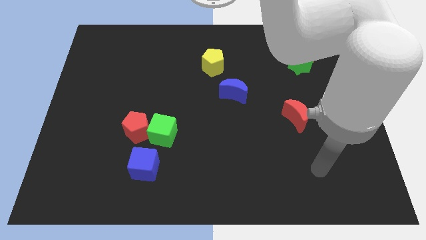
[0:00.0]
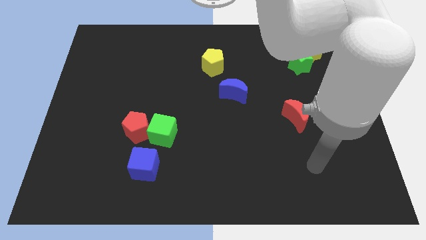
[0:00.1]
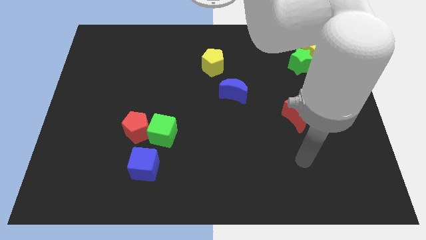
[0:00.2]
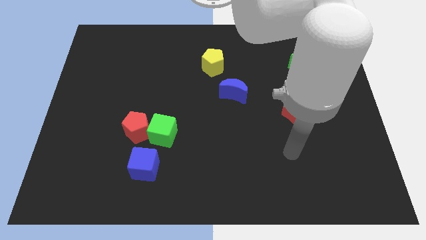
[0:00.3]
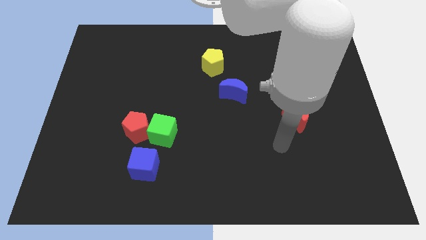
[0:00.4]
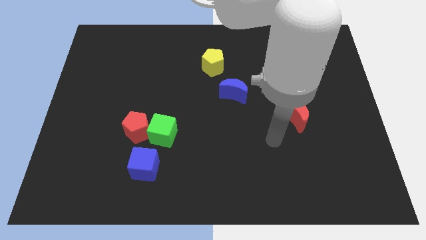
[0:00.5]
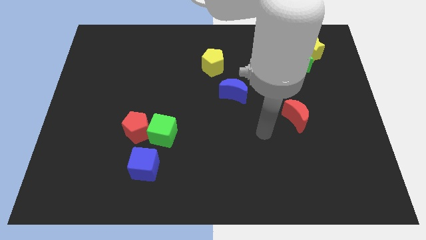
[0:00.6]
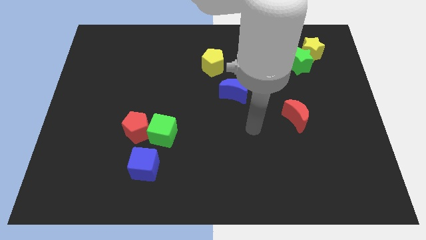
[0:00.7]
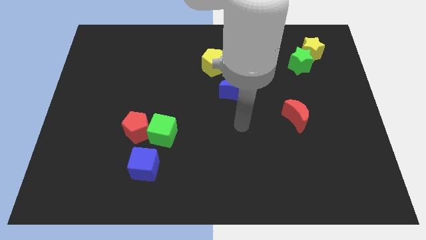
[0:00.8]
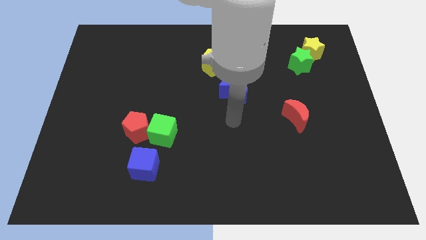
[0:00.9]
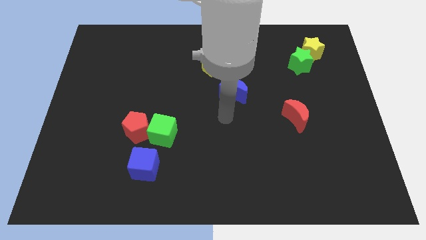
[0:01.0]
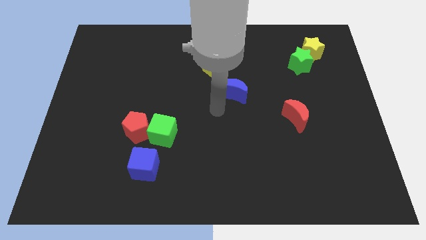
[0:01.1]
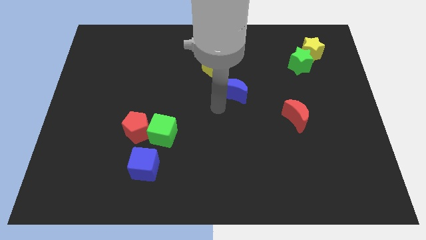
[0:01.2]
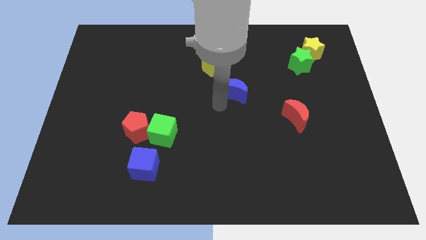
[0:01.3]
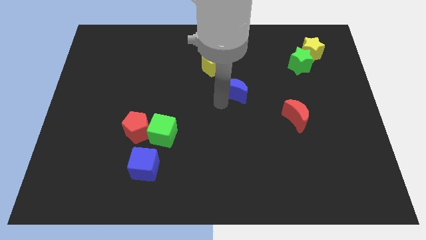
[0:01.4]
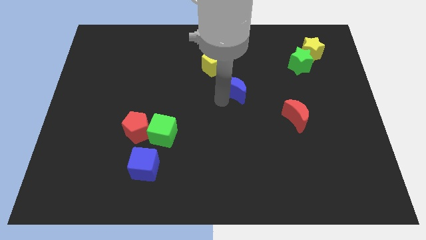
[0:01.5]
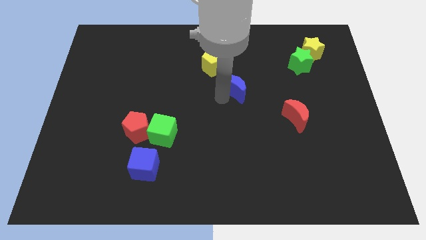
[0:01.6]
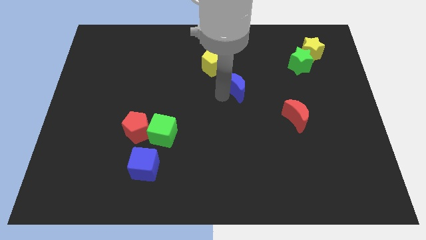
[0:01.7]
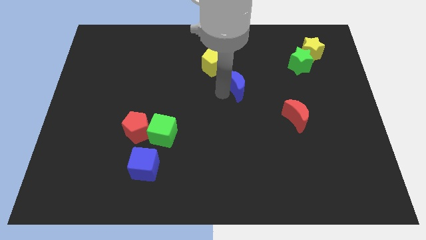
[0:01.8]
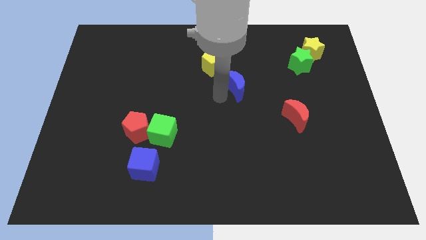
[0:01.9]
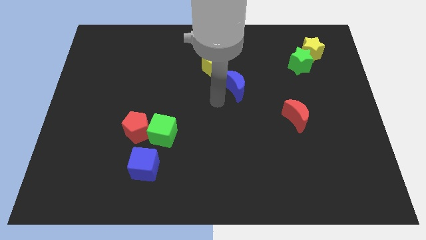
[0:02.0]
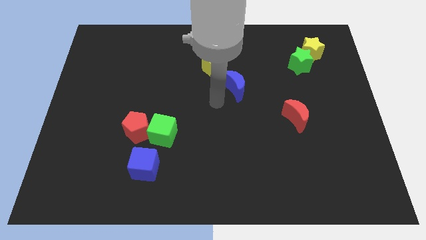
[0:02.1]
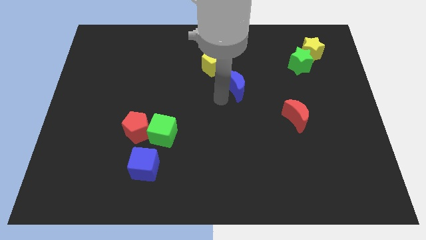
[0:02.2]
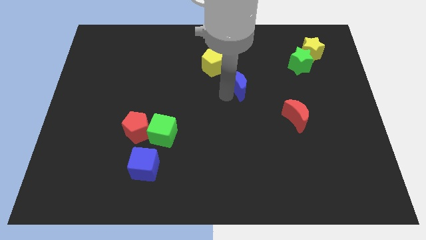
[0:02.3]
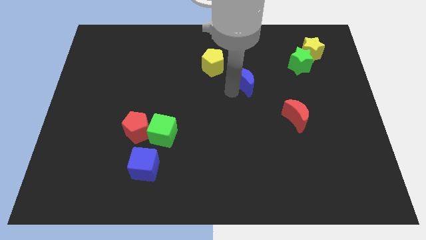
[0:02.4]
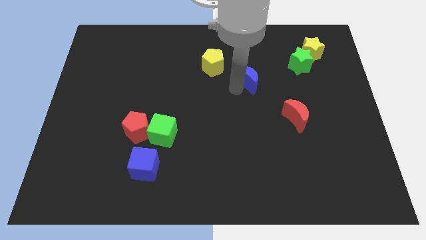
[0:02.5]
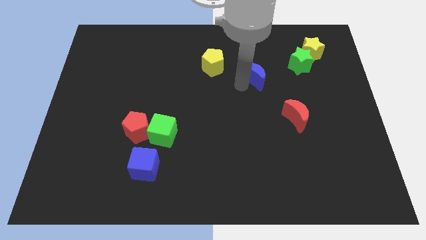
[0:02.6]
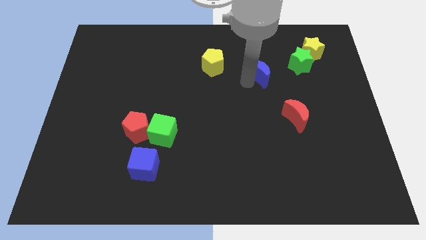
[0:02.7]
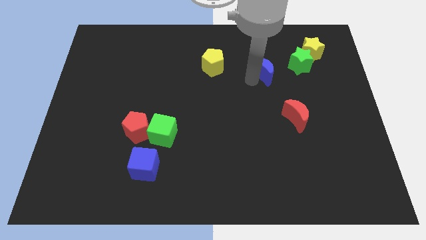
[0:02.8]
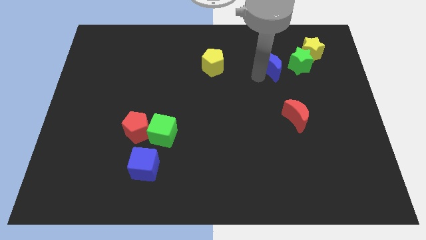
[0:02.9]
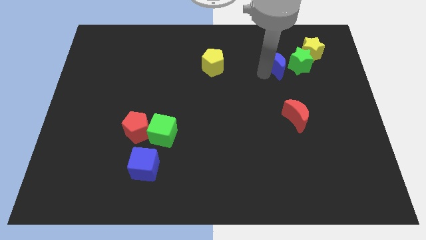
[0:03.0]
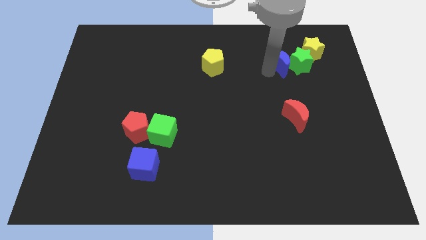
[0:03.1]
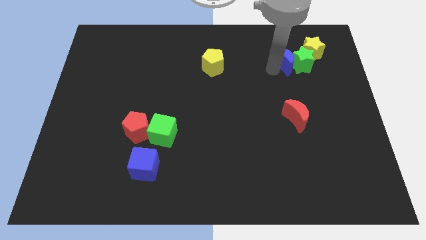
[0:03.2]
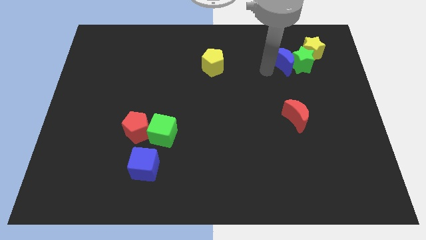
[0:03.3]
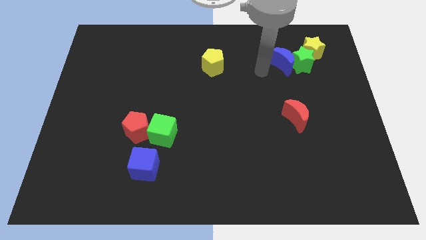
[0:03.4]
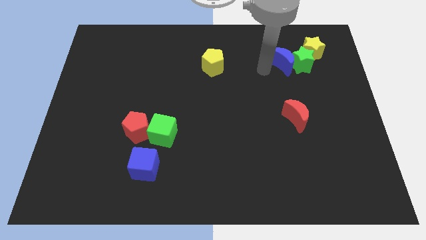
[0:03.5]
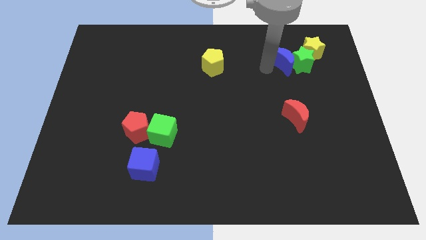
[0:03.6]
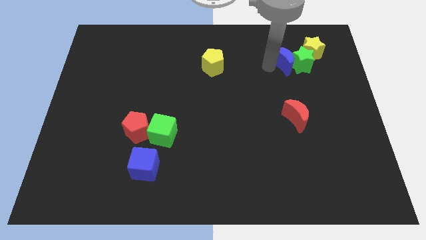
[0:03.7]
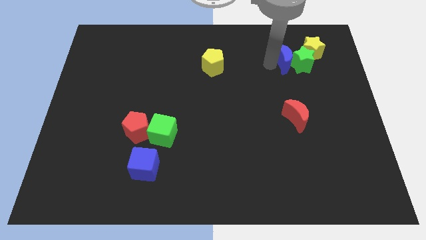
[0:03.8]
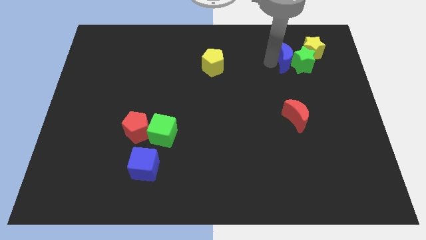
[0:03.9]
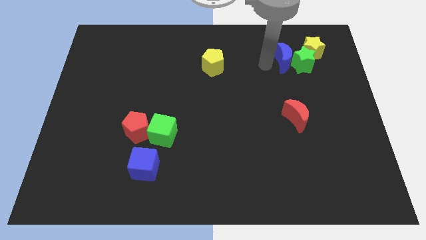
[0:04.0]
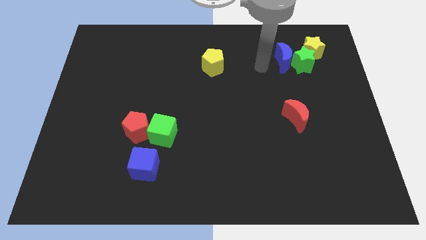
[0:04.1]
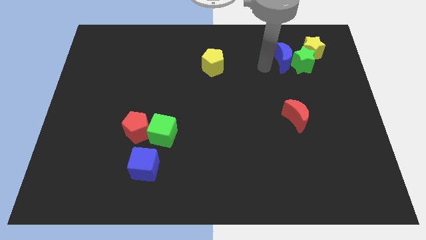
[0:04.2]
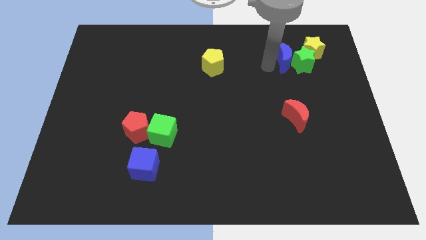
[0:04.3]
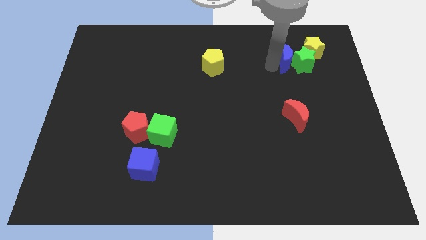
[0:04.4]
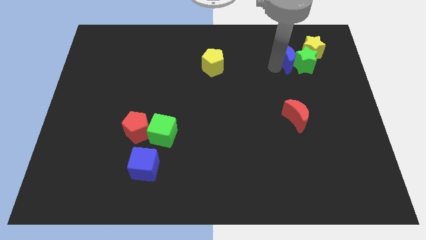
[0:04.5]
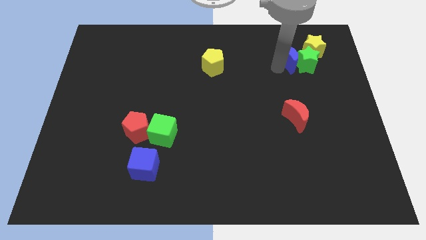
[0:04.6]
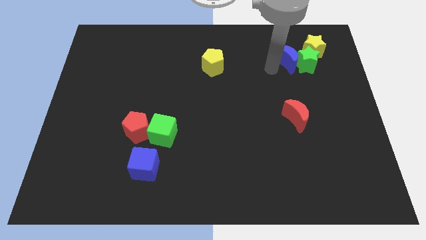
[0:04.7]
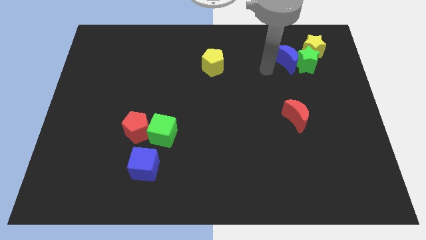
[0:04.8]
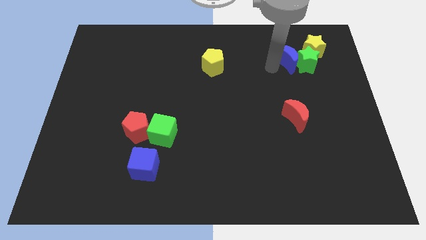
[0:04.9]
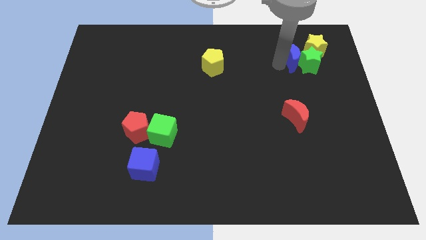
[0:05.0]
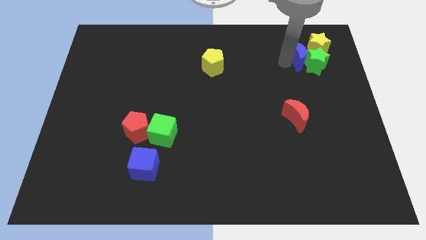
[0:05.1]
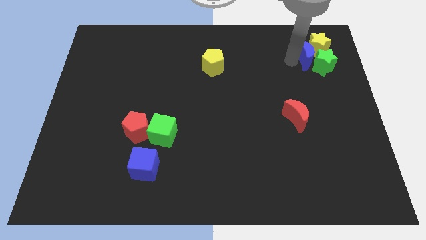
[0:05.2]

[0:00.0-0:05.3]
slide the blue moon next to the yellow star

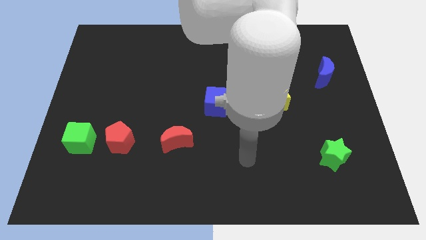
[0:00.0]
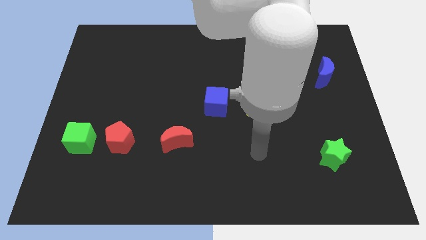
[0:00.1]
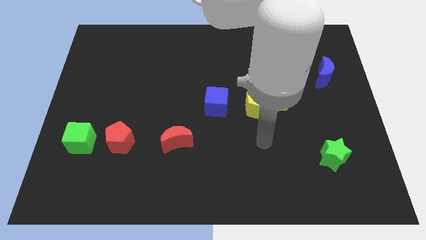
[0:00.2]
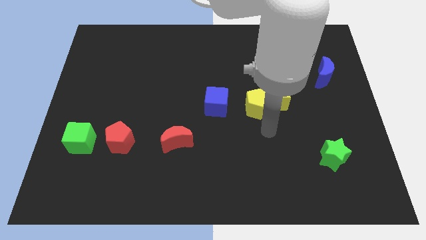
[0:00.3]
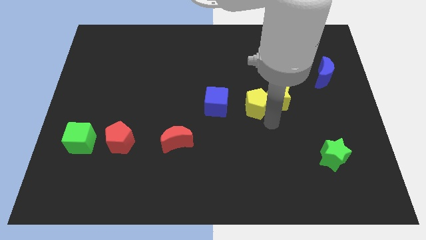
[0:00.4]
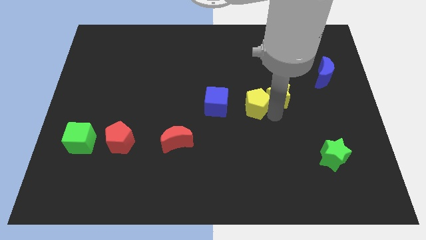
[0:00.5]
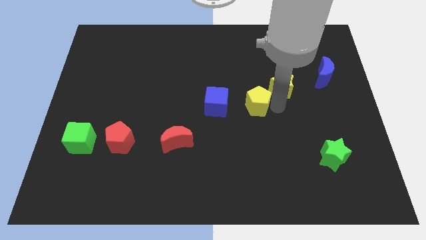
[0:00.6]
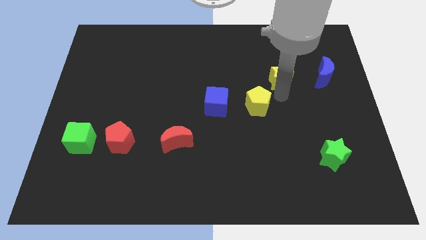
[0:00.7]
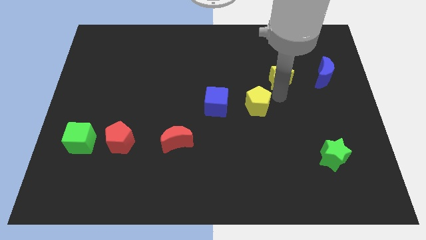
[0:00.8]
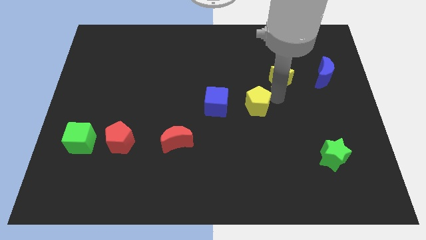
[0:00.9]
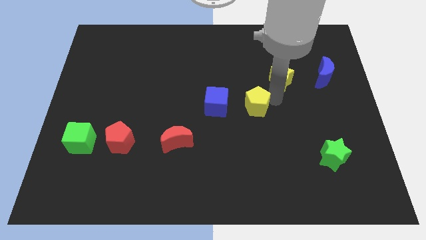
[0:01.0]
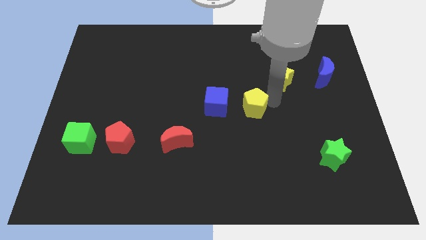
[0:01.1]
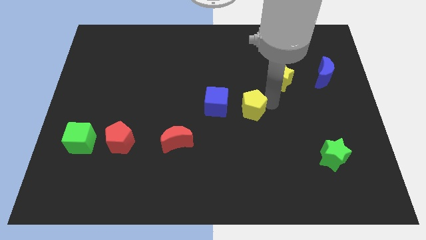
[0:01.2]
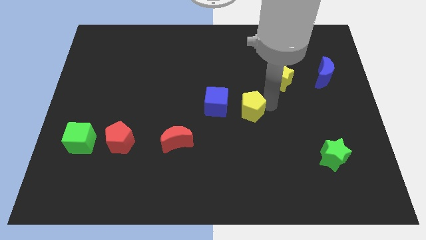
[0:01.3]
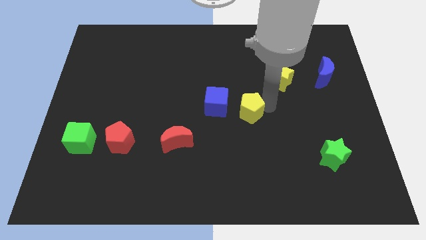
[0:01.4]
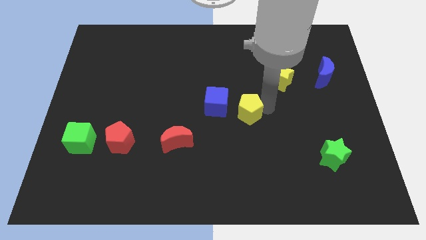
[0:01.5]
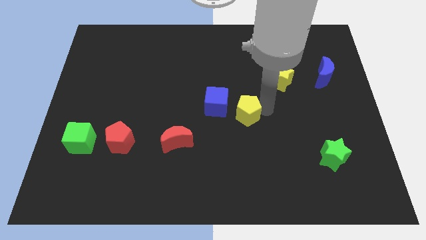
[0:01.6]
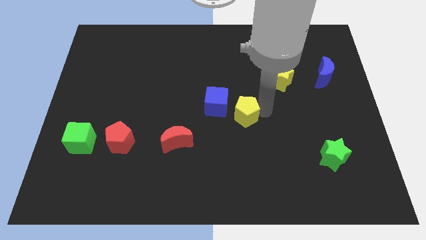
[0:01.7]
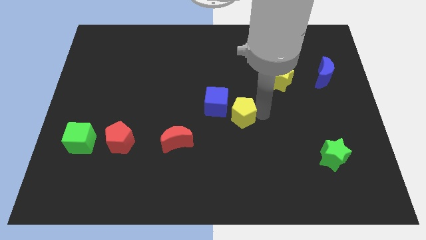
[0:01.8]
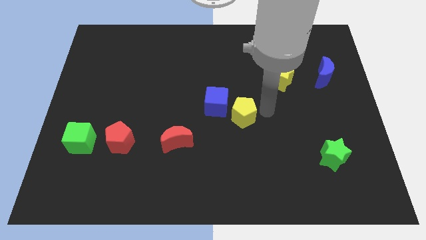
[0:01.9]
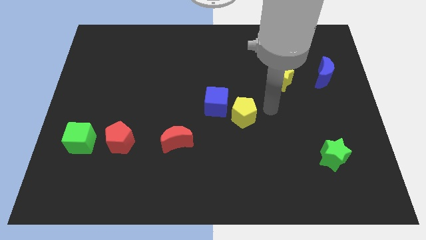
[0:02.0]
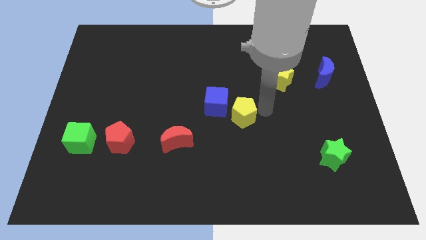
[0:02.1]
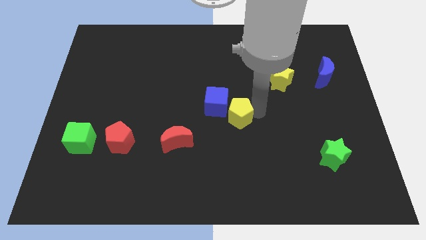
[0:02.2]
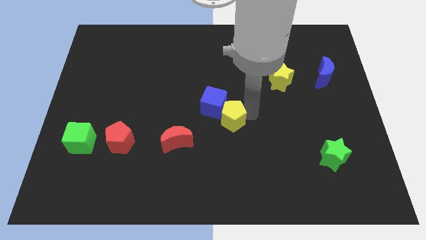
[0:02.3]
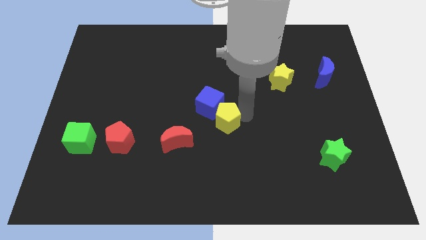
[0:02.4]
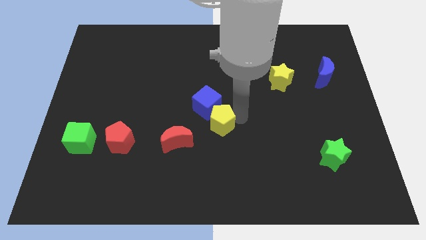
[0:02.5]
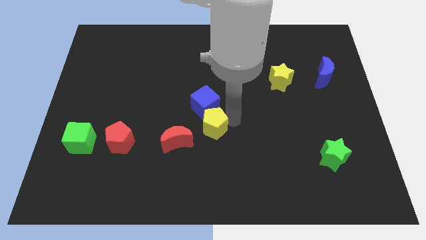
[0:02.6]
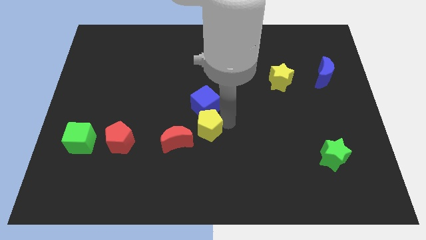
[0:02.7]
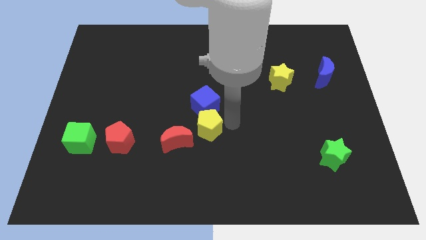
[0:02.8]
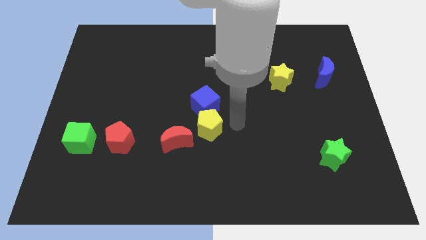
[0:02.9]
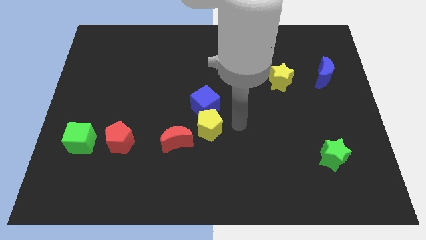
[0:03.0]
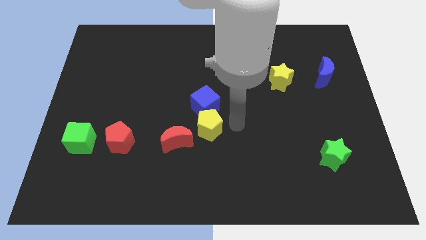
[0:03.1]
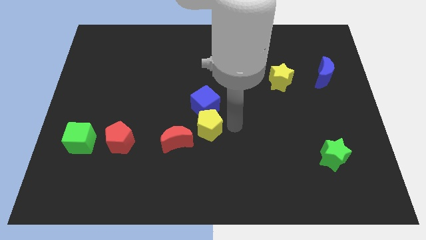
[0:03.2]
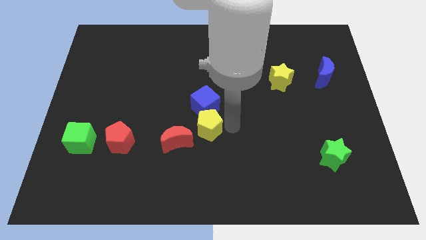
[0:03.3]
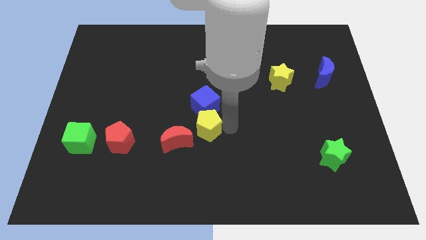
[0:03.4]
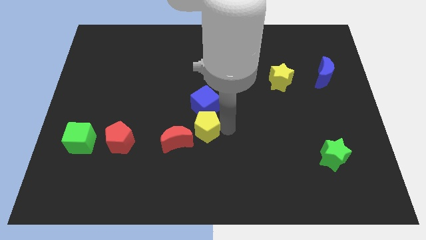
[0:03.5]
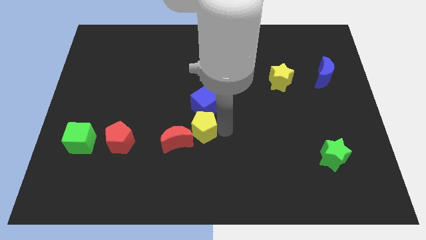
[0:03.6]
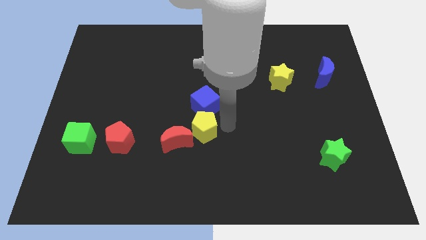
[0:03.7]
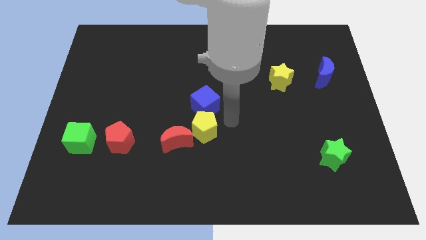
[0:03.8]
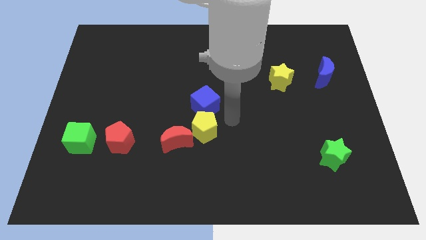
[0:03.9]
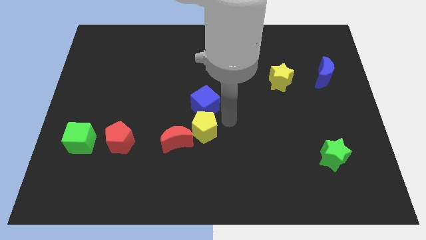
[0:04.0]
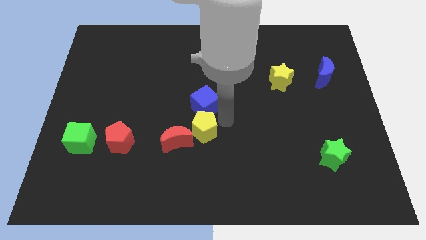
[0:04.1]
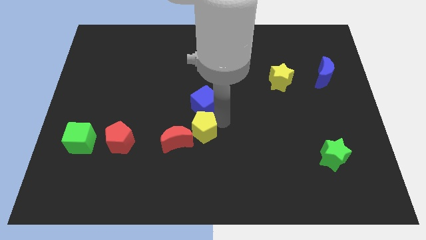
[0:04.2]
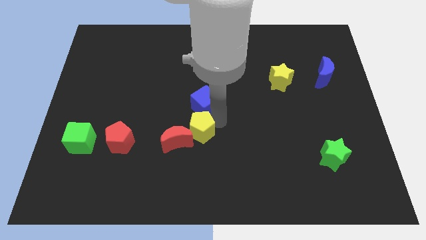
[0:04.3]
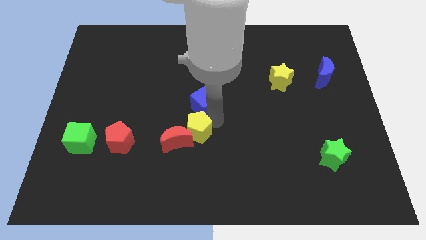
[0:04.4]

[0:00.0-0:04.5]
slide the yellow pentagon towards the red moon
